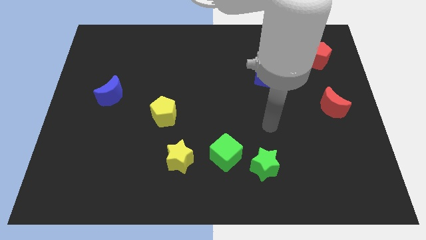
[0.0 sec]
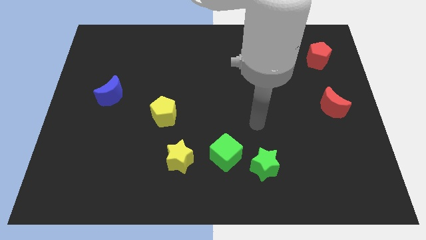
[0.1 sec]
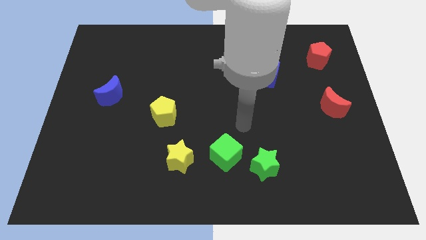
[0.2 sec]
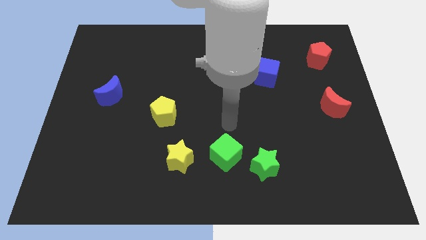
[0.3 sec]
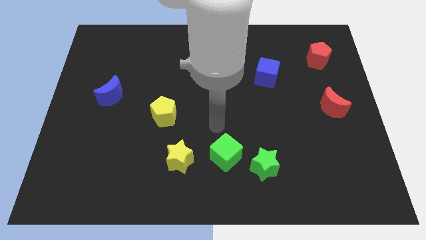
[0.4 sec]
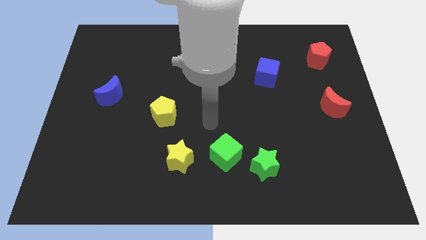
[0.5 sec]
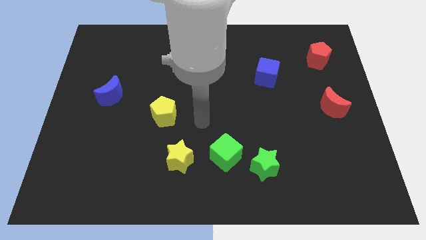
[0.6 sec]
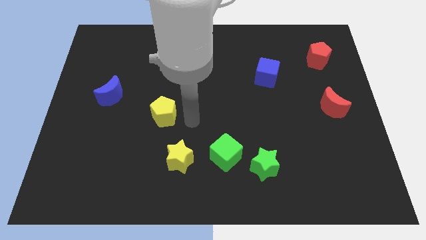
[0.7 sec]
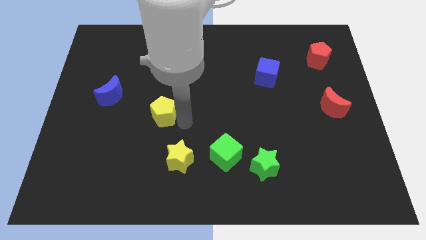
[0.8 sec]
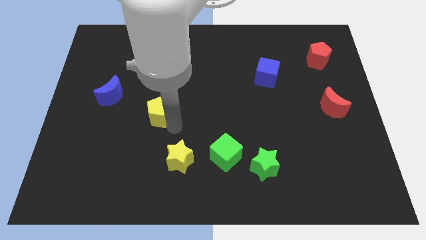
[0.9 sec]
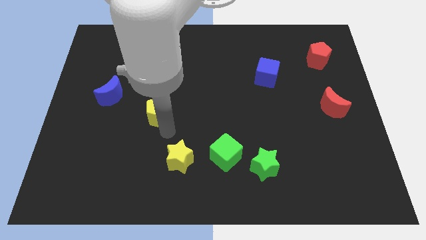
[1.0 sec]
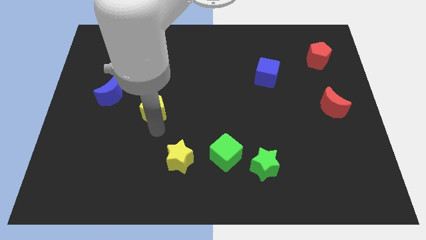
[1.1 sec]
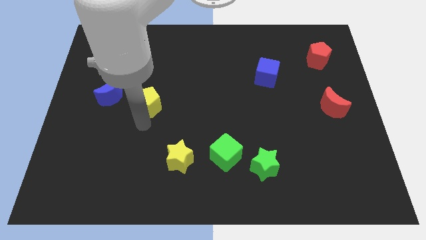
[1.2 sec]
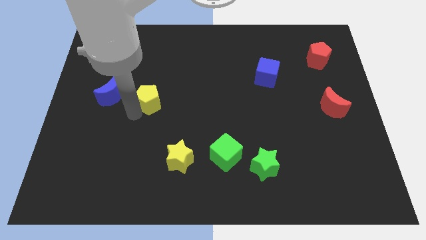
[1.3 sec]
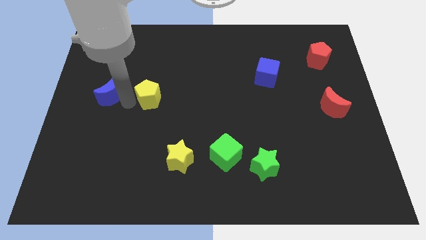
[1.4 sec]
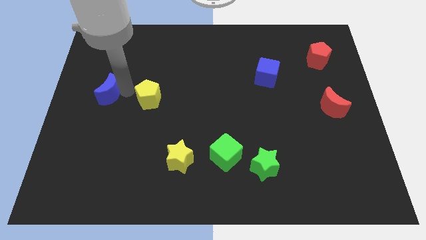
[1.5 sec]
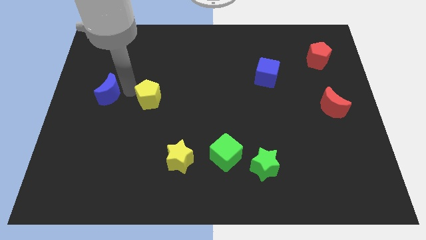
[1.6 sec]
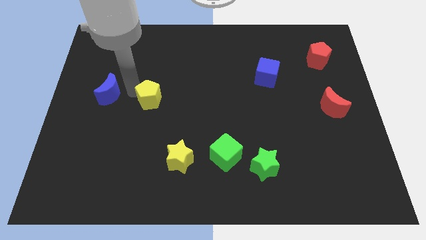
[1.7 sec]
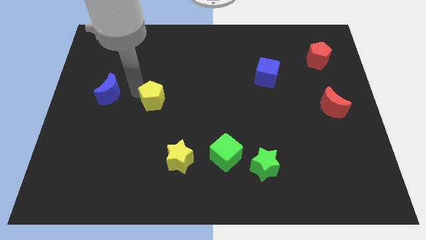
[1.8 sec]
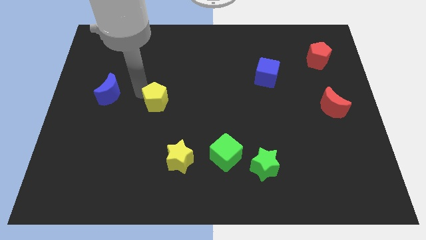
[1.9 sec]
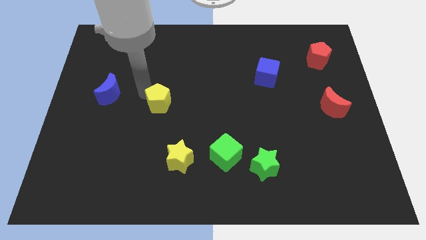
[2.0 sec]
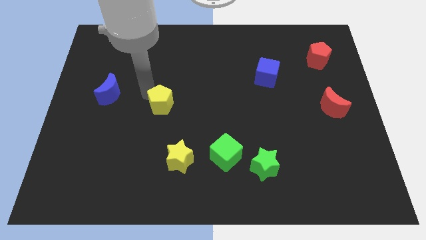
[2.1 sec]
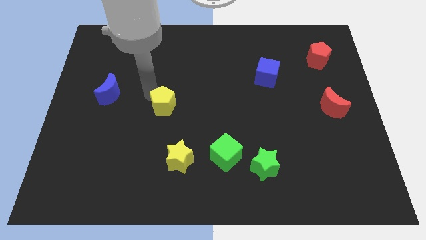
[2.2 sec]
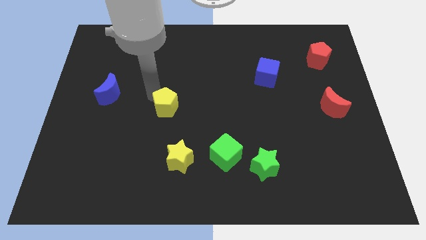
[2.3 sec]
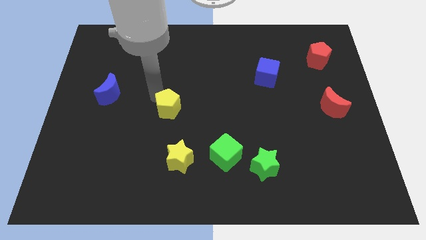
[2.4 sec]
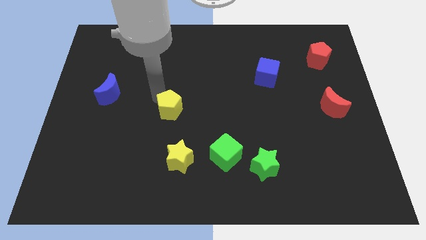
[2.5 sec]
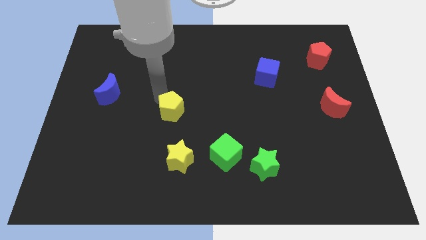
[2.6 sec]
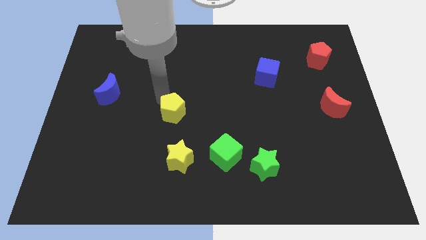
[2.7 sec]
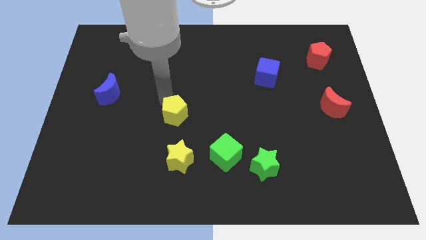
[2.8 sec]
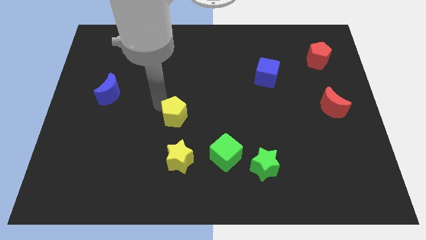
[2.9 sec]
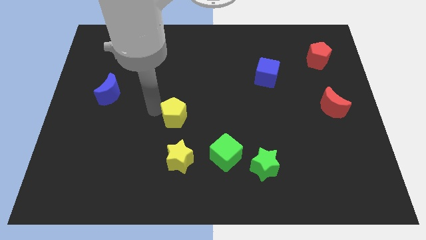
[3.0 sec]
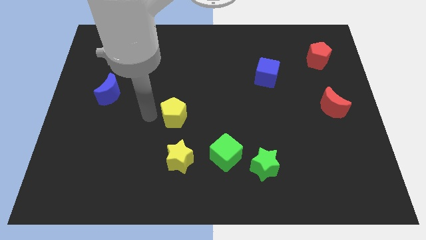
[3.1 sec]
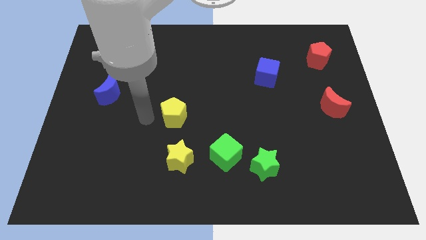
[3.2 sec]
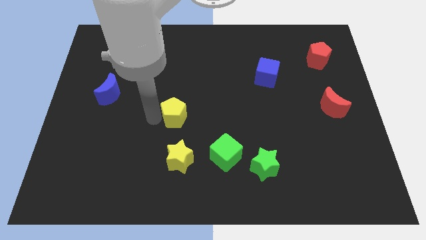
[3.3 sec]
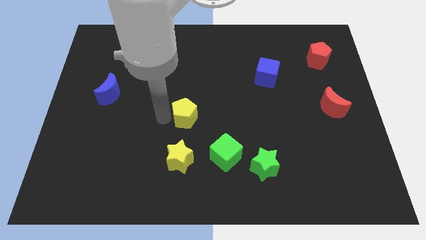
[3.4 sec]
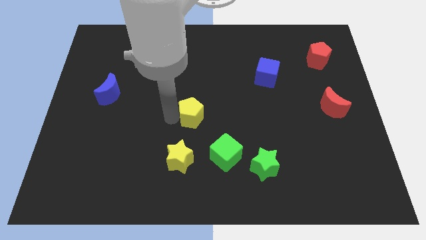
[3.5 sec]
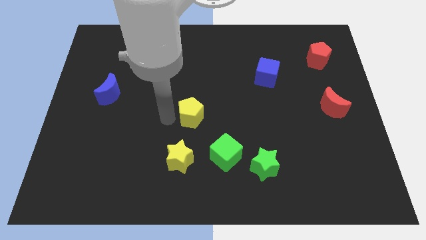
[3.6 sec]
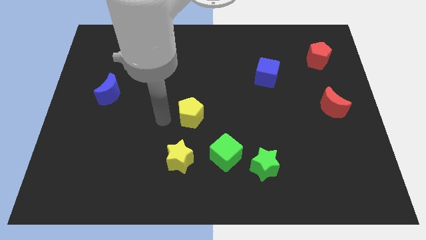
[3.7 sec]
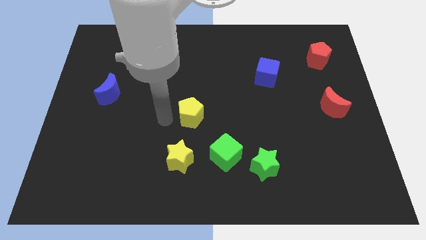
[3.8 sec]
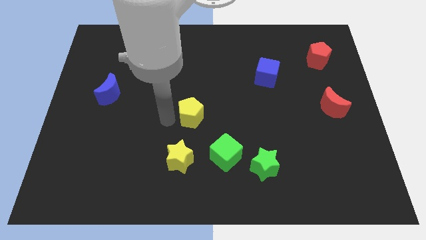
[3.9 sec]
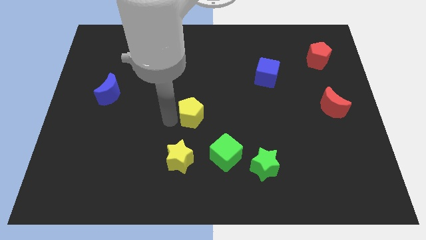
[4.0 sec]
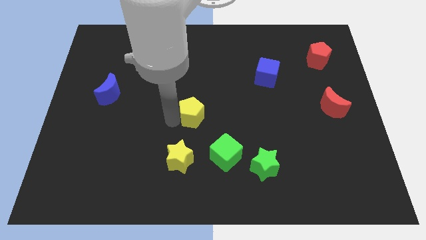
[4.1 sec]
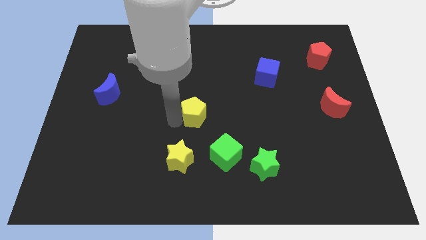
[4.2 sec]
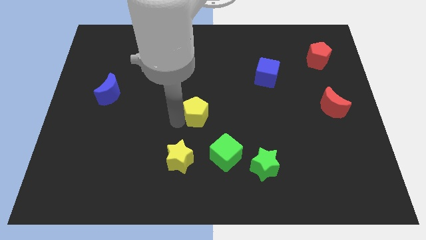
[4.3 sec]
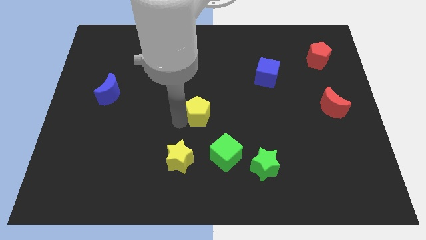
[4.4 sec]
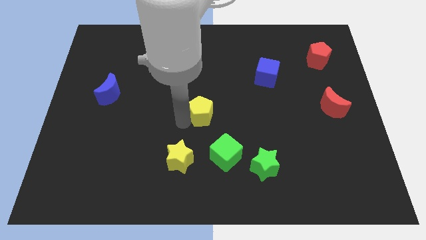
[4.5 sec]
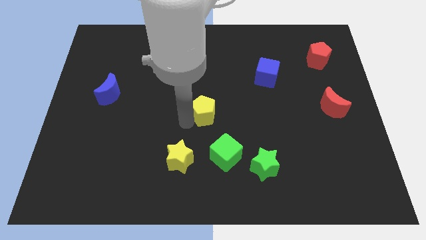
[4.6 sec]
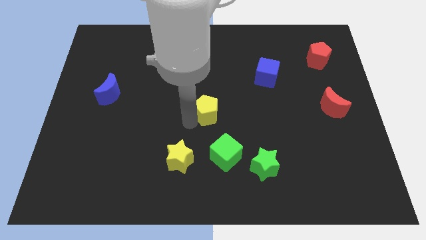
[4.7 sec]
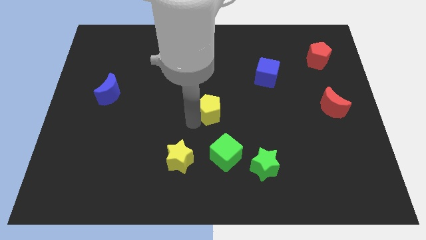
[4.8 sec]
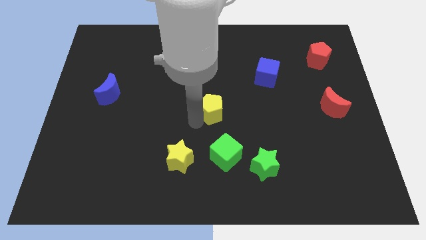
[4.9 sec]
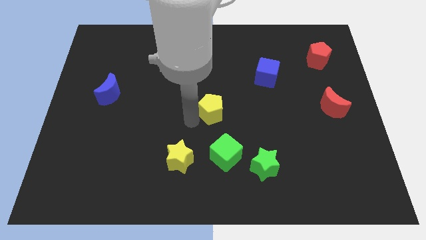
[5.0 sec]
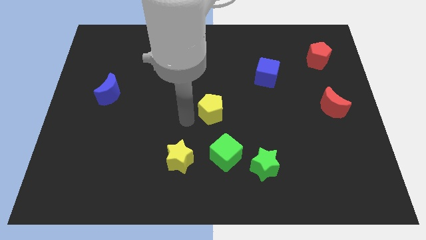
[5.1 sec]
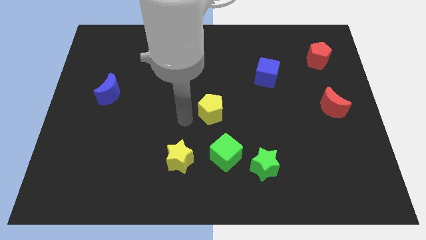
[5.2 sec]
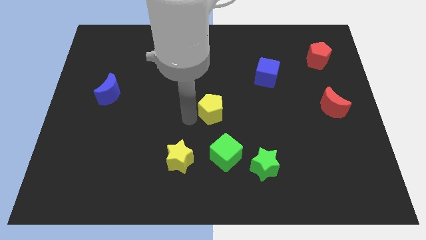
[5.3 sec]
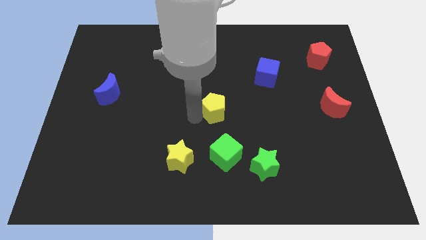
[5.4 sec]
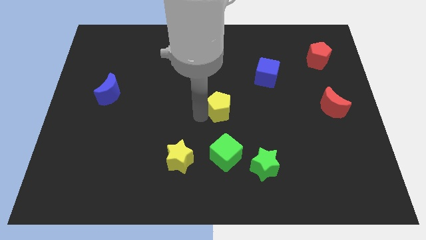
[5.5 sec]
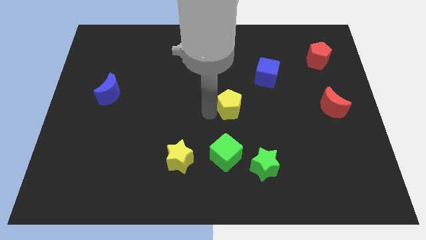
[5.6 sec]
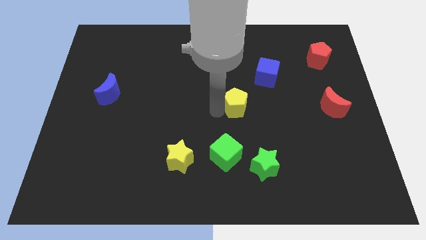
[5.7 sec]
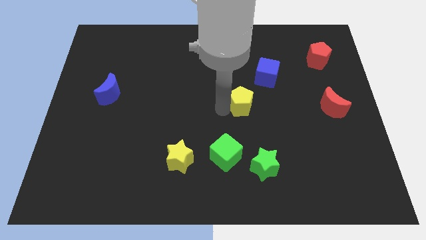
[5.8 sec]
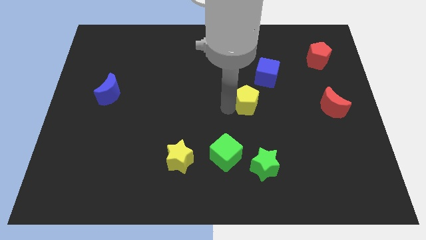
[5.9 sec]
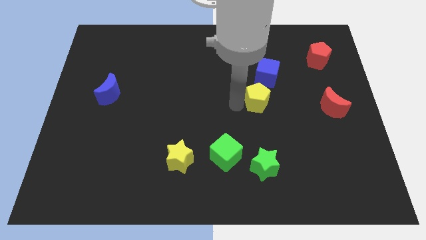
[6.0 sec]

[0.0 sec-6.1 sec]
push the yellow pentagon right

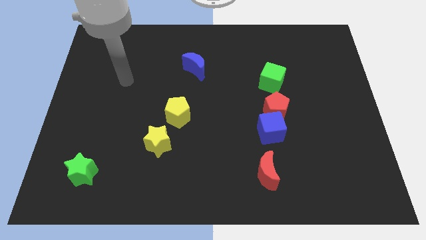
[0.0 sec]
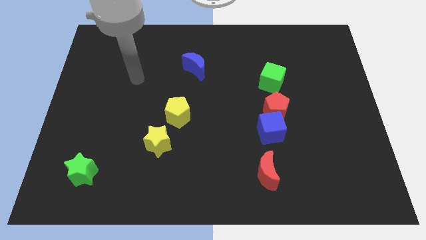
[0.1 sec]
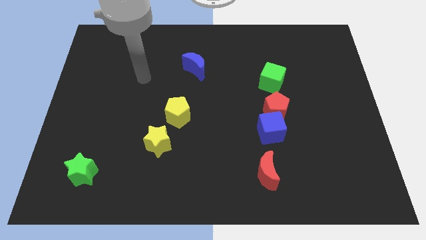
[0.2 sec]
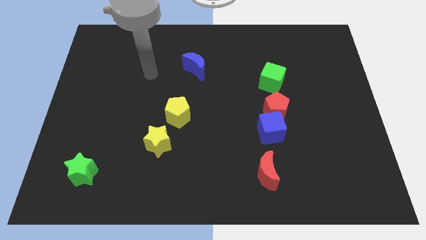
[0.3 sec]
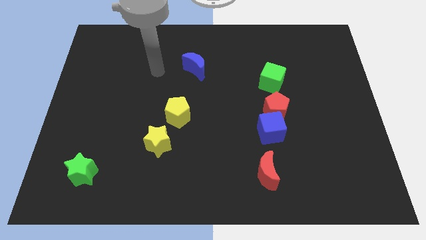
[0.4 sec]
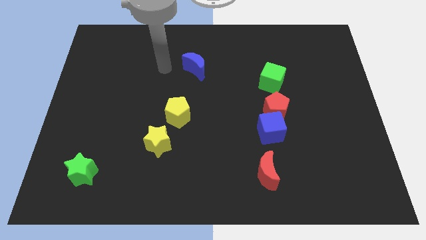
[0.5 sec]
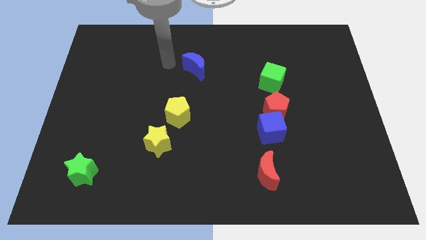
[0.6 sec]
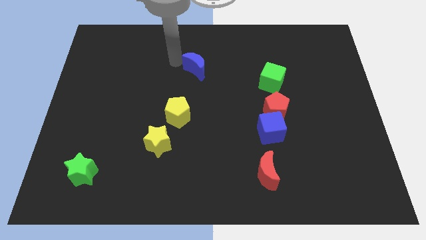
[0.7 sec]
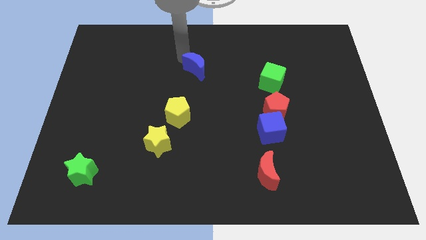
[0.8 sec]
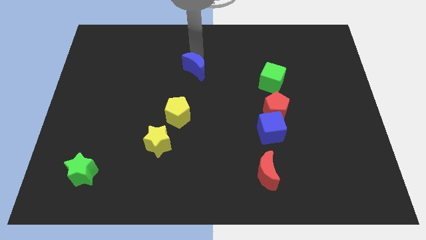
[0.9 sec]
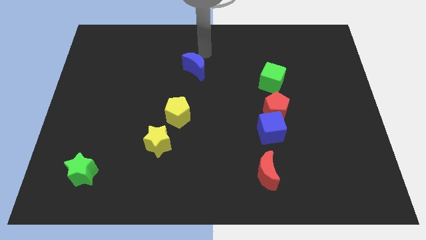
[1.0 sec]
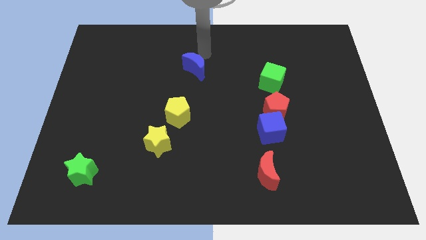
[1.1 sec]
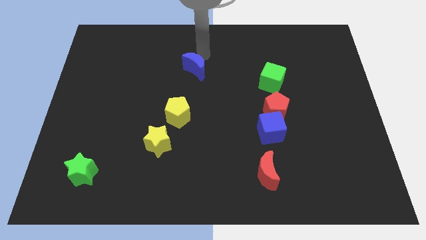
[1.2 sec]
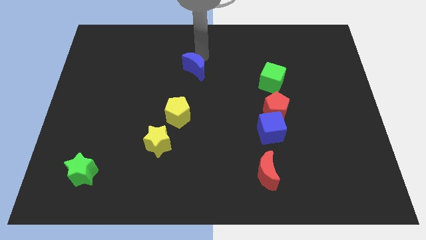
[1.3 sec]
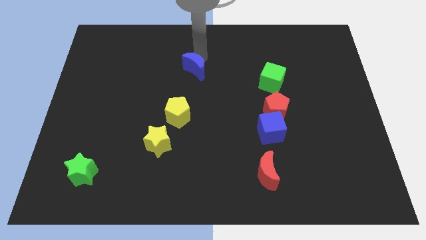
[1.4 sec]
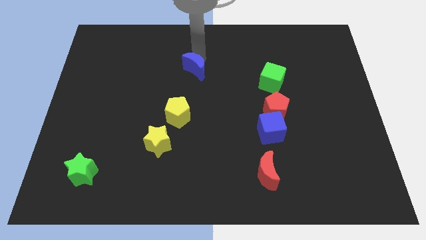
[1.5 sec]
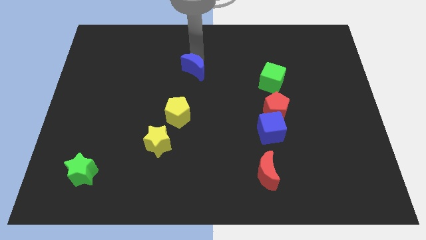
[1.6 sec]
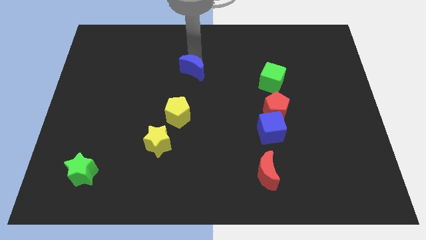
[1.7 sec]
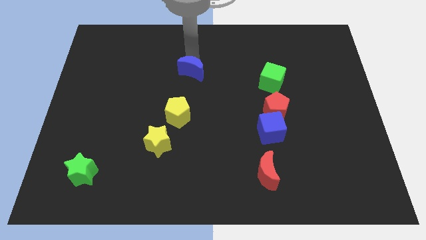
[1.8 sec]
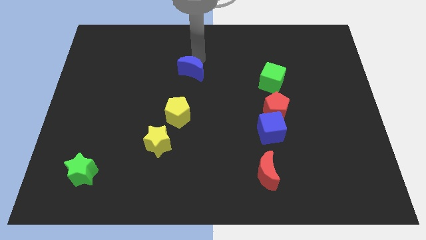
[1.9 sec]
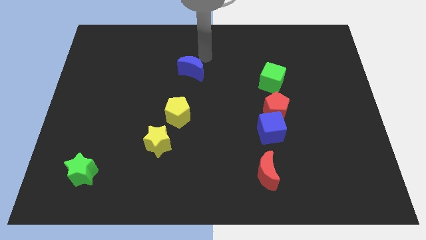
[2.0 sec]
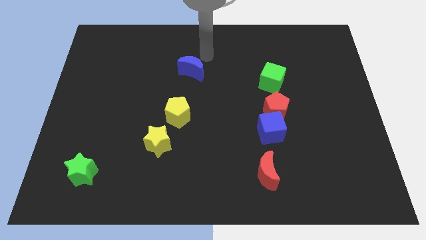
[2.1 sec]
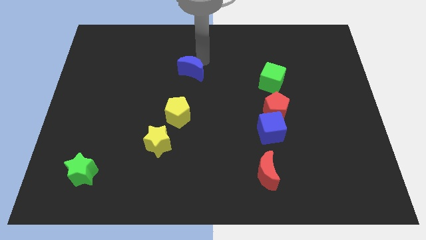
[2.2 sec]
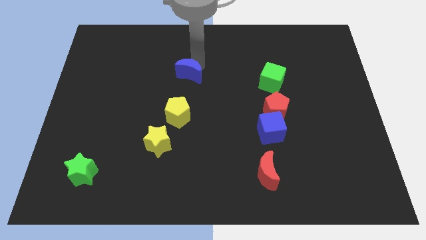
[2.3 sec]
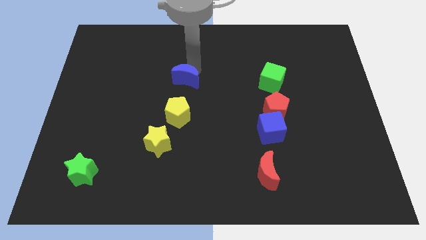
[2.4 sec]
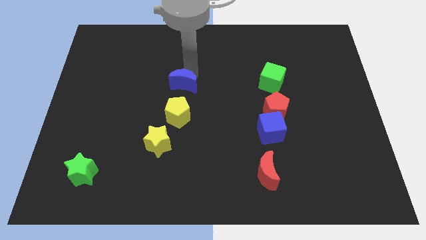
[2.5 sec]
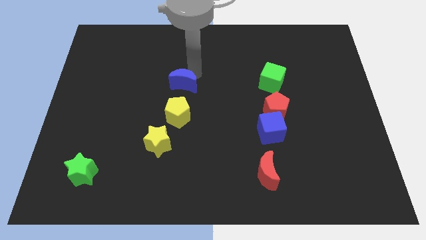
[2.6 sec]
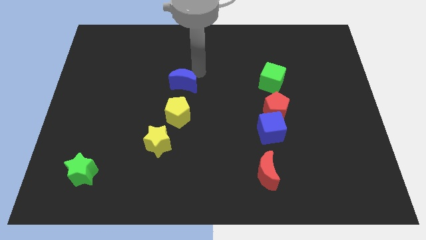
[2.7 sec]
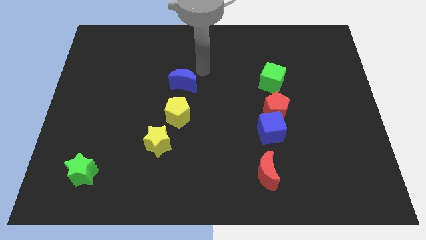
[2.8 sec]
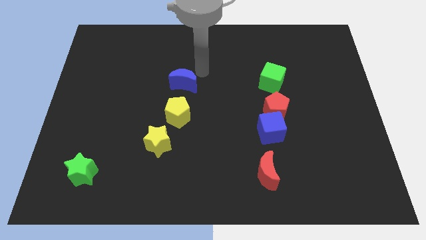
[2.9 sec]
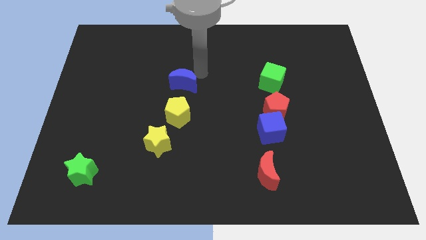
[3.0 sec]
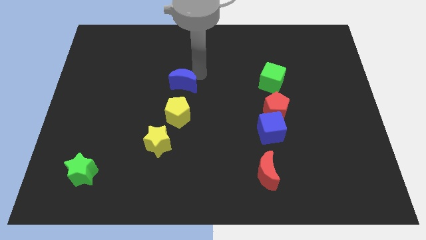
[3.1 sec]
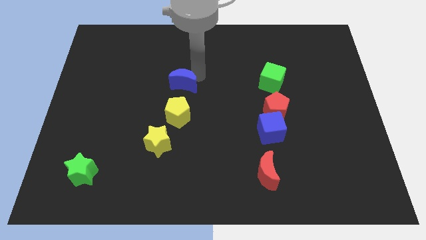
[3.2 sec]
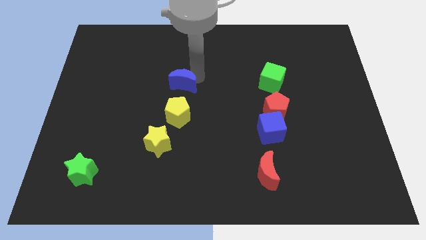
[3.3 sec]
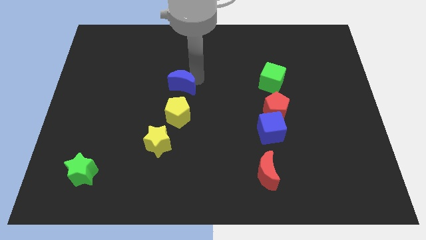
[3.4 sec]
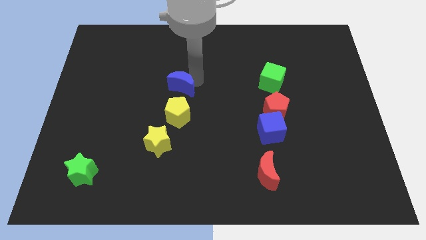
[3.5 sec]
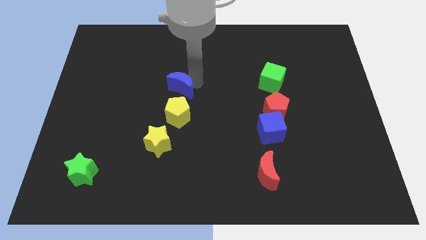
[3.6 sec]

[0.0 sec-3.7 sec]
slightly push the blue moon downwards and to the left diagonally
